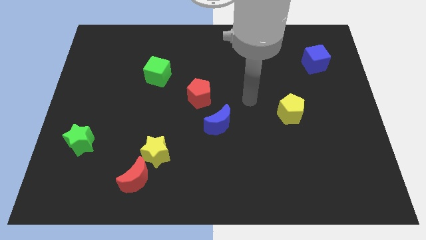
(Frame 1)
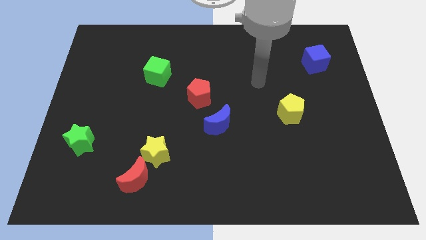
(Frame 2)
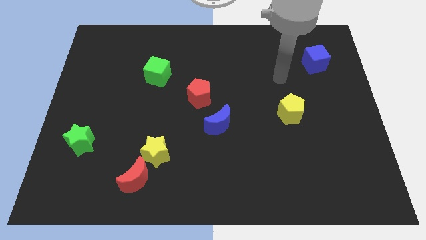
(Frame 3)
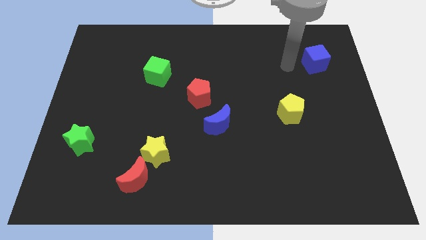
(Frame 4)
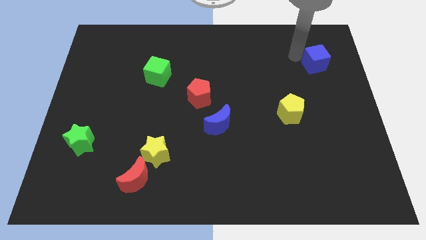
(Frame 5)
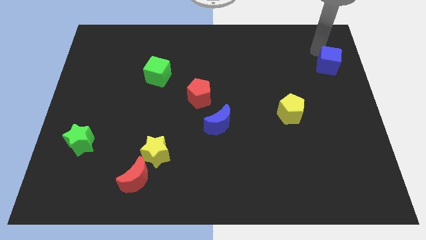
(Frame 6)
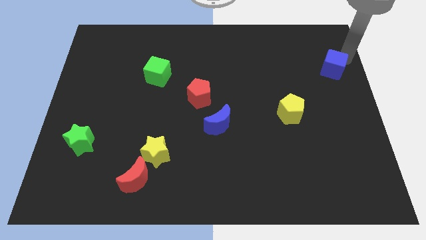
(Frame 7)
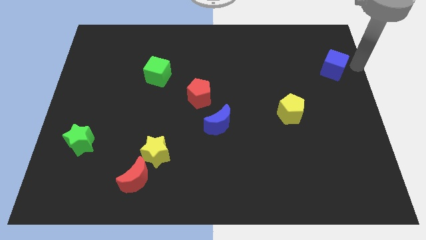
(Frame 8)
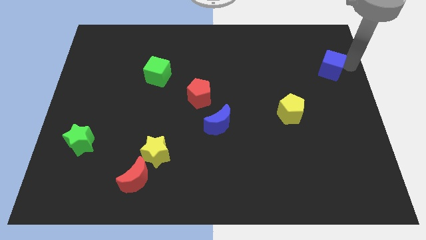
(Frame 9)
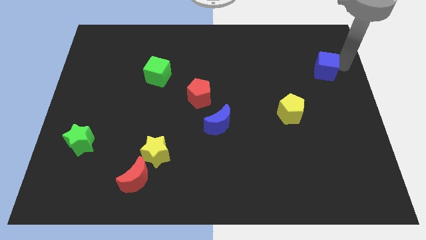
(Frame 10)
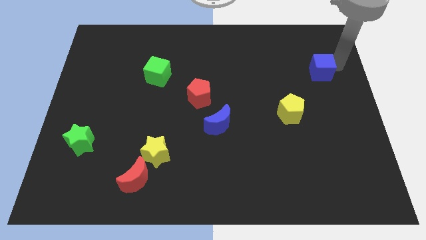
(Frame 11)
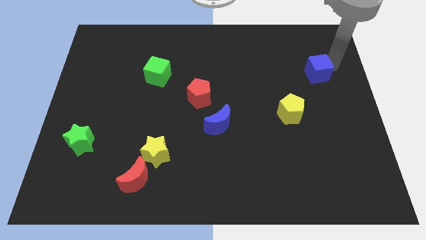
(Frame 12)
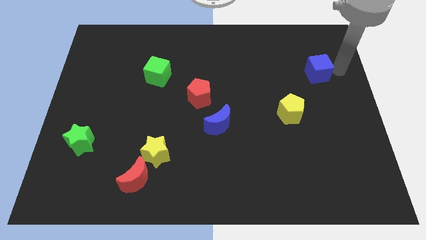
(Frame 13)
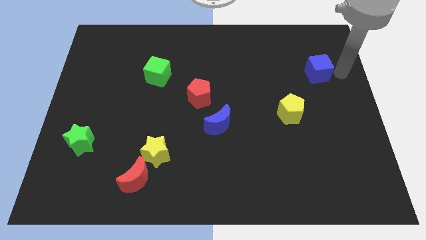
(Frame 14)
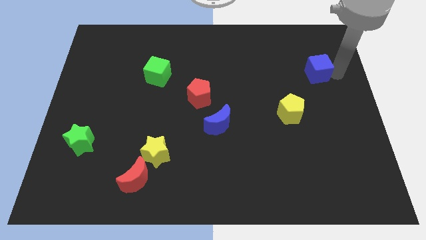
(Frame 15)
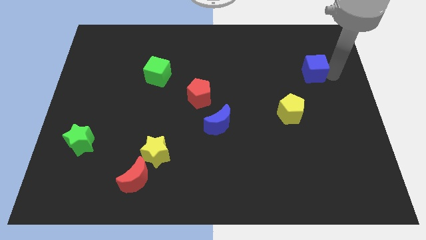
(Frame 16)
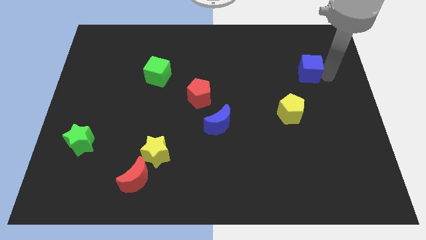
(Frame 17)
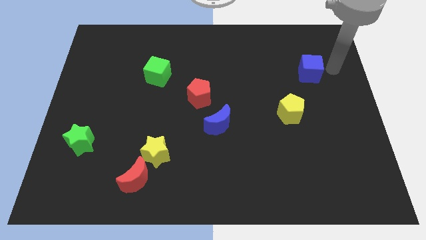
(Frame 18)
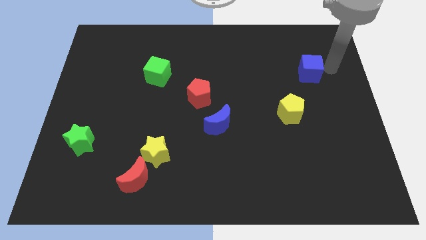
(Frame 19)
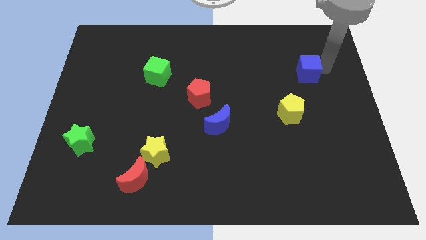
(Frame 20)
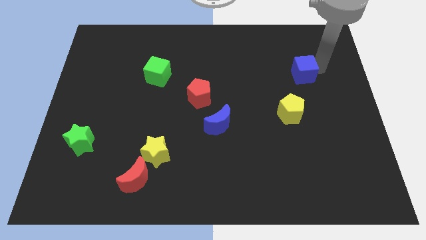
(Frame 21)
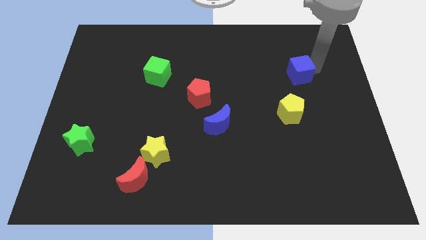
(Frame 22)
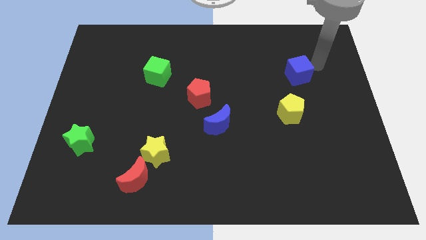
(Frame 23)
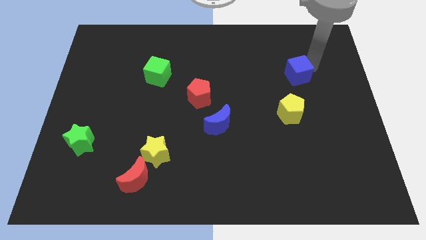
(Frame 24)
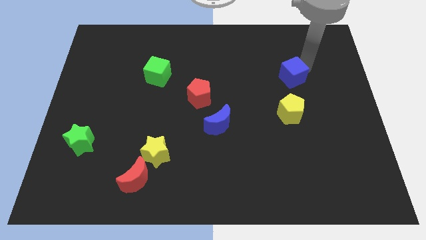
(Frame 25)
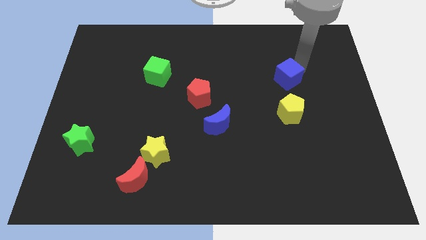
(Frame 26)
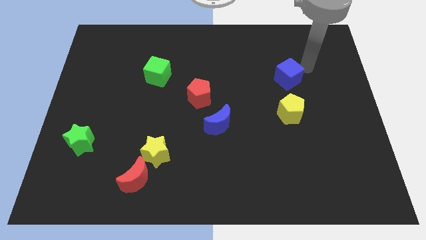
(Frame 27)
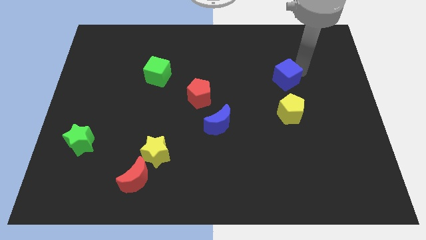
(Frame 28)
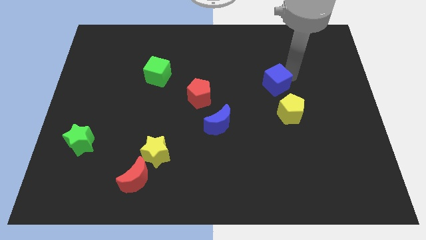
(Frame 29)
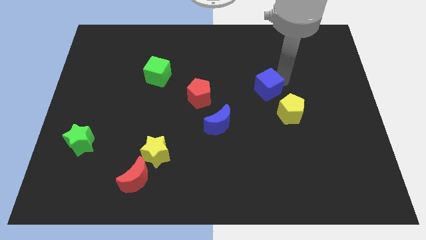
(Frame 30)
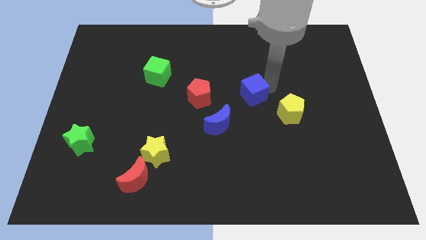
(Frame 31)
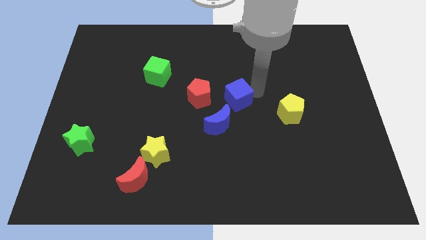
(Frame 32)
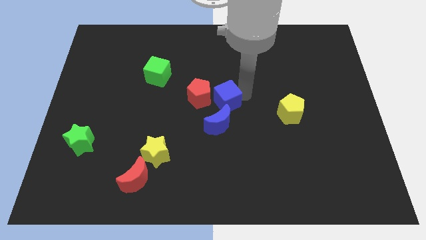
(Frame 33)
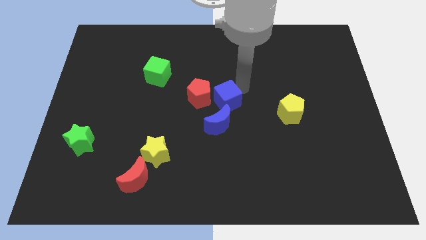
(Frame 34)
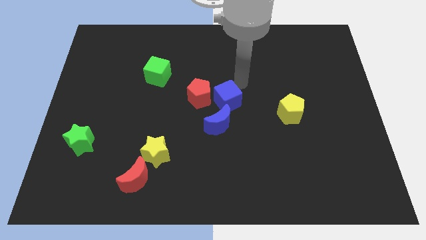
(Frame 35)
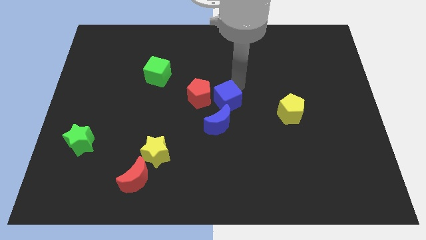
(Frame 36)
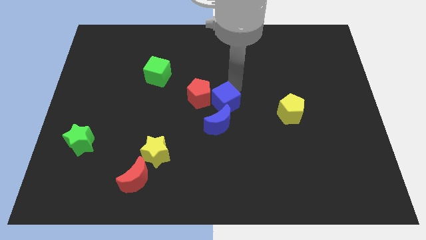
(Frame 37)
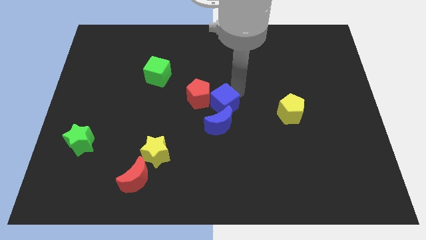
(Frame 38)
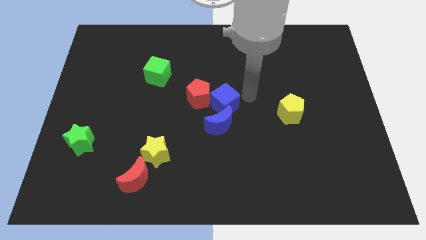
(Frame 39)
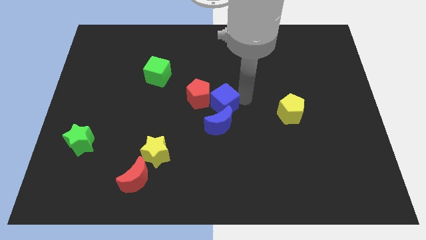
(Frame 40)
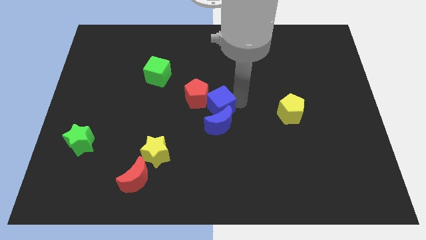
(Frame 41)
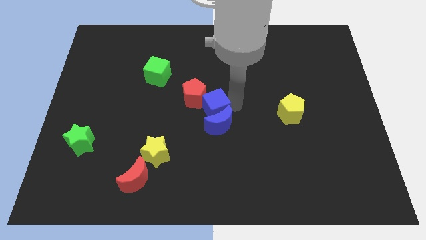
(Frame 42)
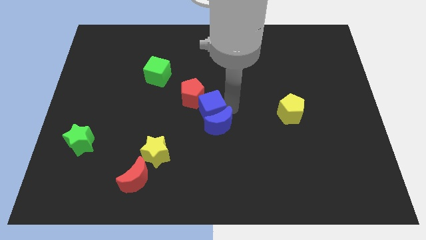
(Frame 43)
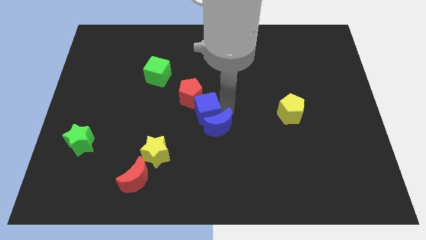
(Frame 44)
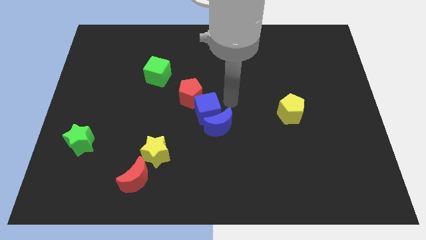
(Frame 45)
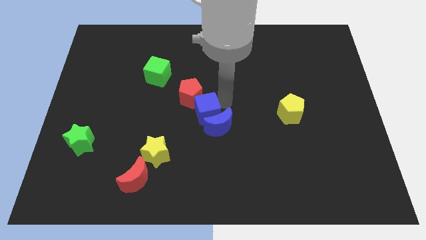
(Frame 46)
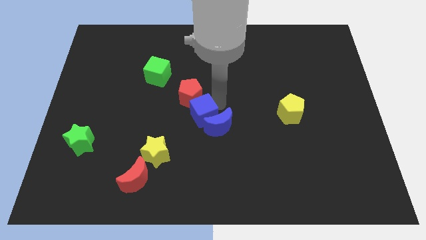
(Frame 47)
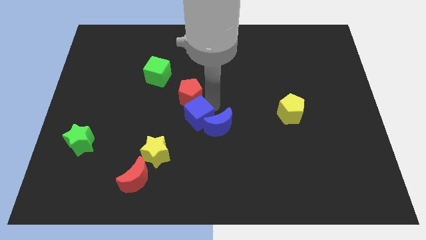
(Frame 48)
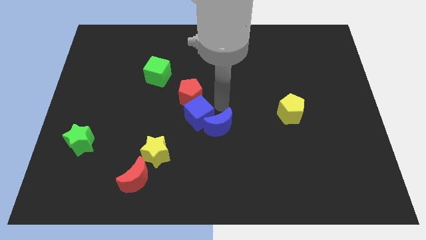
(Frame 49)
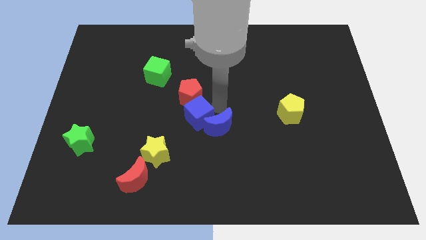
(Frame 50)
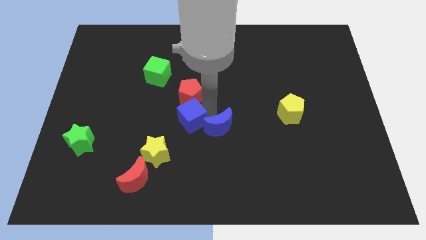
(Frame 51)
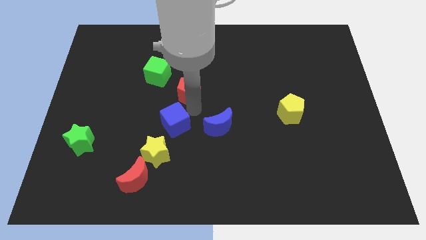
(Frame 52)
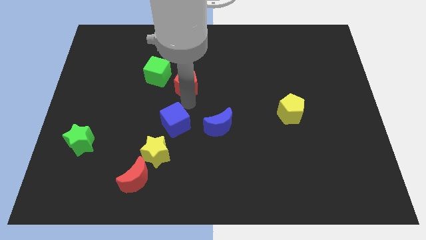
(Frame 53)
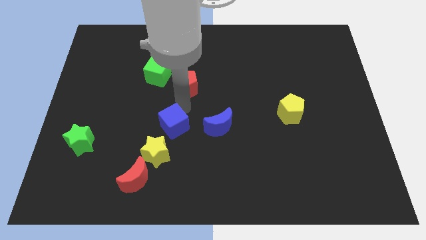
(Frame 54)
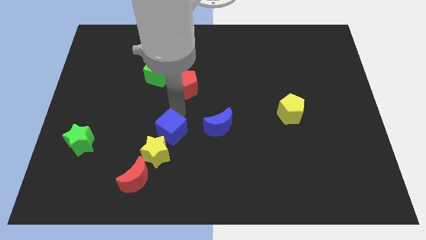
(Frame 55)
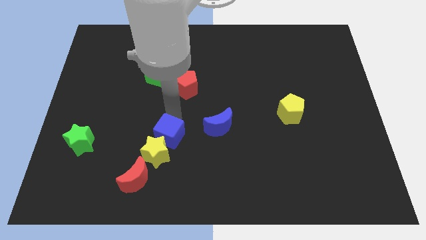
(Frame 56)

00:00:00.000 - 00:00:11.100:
slide the blue cube towards the yellow star
